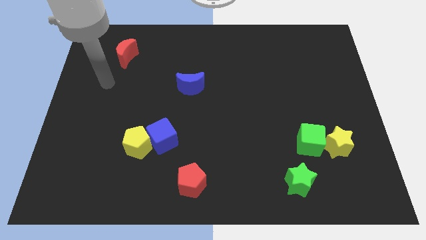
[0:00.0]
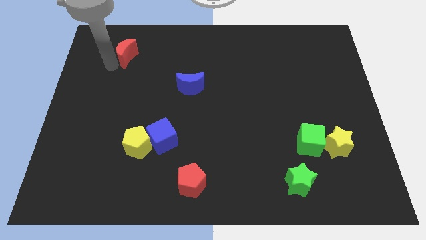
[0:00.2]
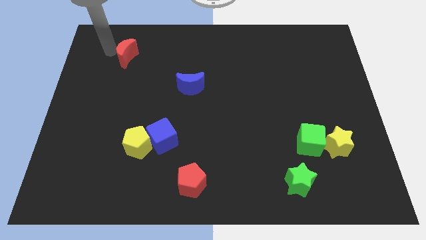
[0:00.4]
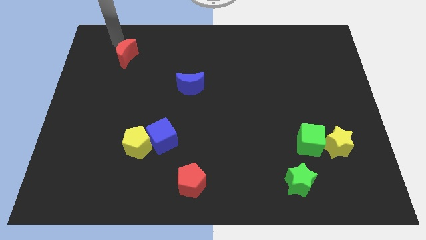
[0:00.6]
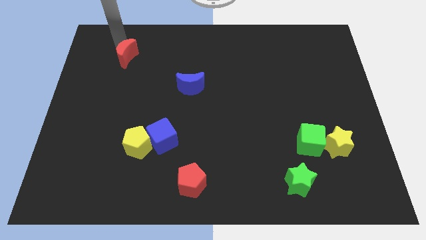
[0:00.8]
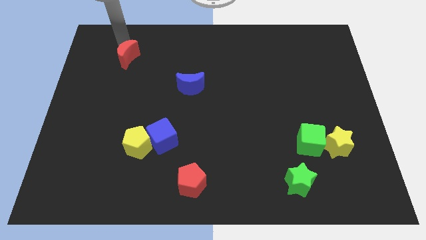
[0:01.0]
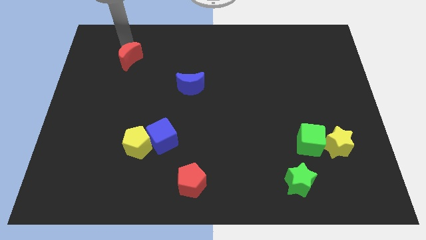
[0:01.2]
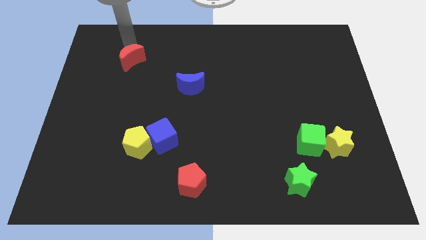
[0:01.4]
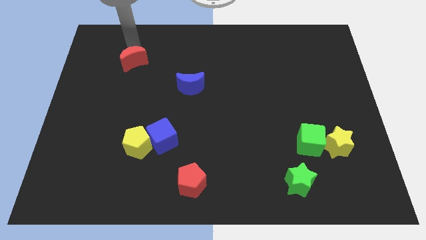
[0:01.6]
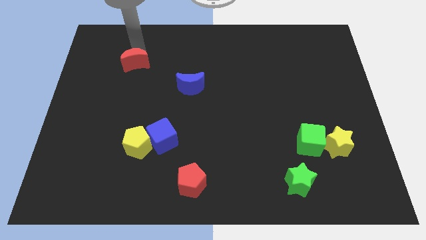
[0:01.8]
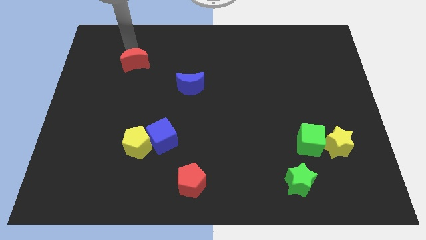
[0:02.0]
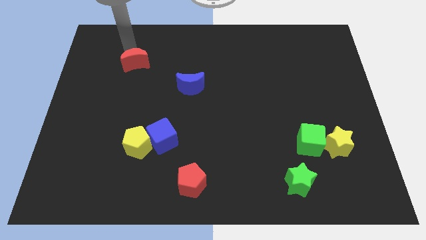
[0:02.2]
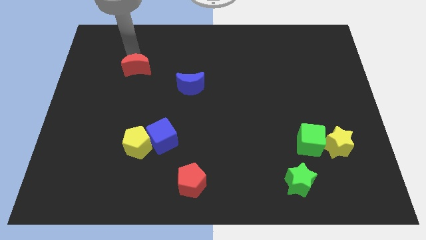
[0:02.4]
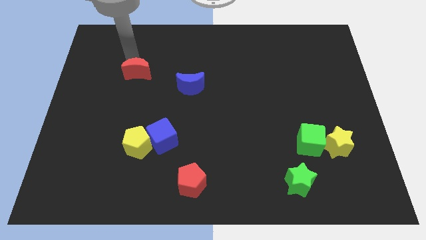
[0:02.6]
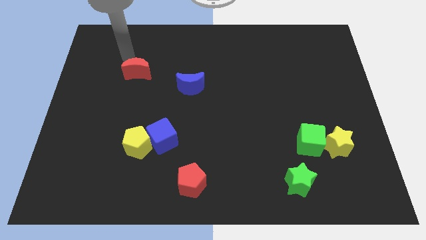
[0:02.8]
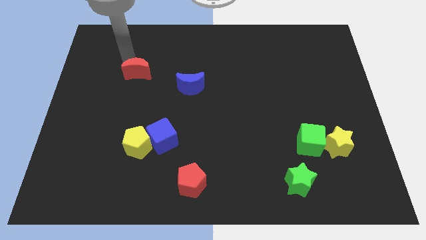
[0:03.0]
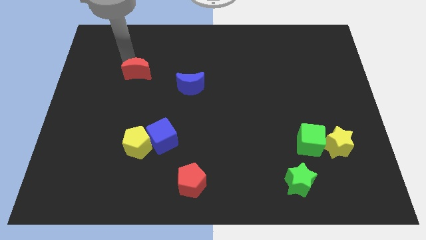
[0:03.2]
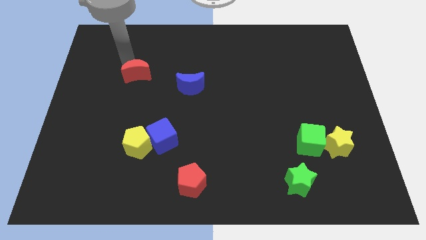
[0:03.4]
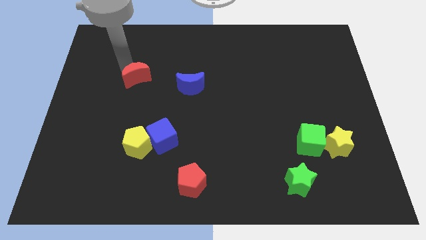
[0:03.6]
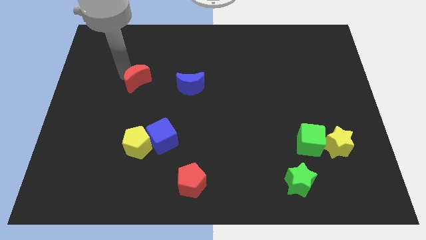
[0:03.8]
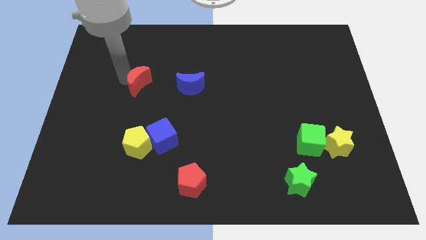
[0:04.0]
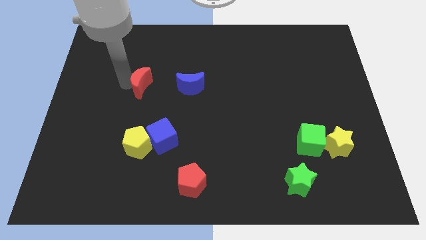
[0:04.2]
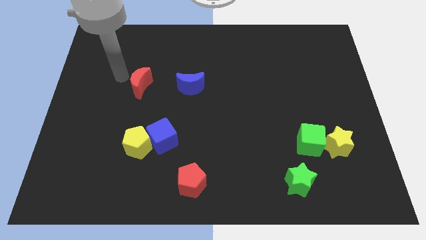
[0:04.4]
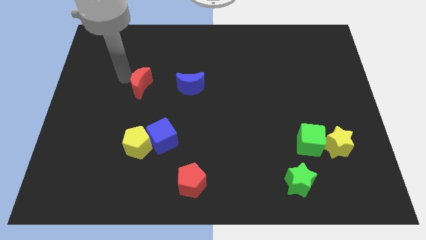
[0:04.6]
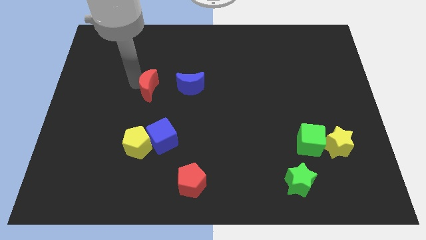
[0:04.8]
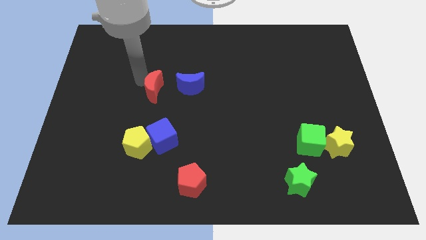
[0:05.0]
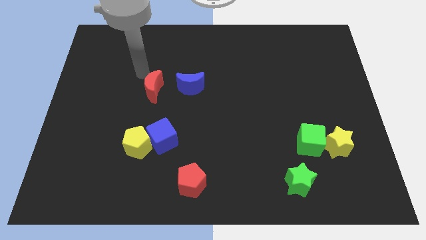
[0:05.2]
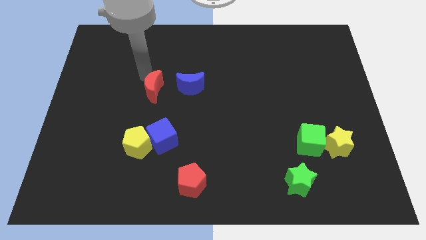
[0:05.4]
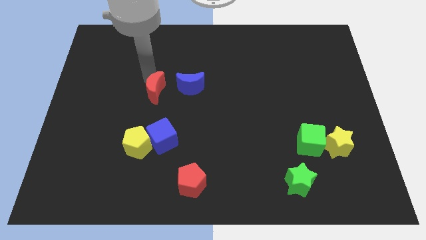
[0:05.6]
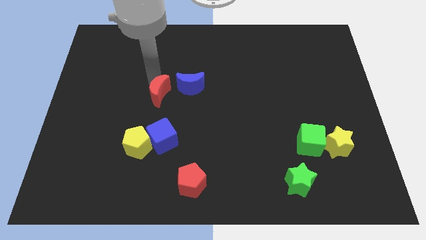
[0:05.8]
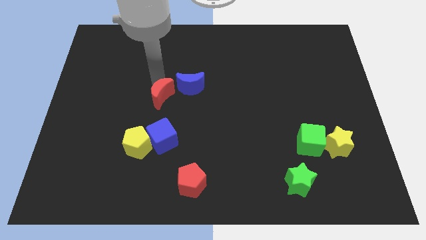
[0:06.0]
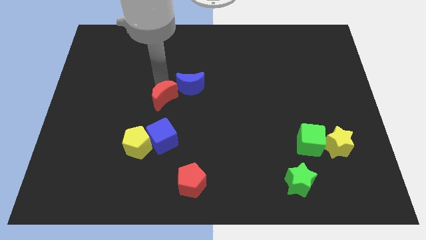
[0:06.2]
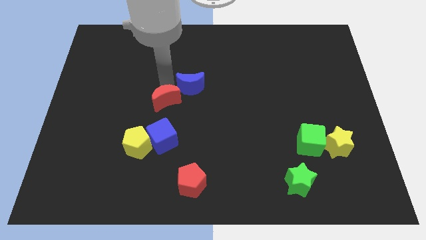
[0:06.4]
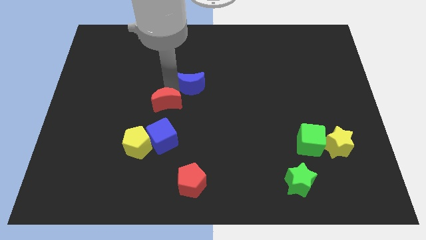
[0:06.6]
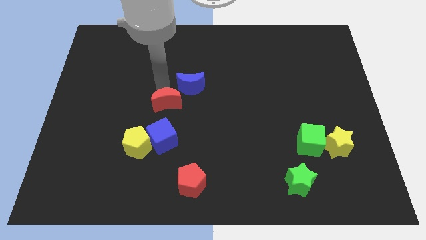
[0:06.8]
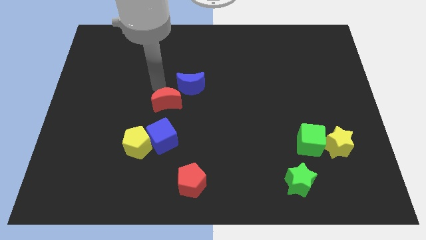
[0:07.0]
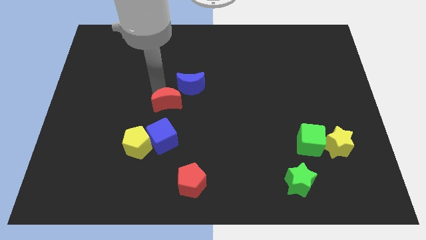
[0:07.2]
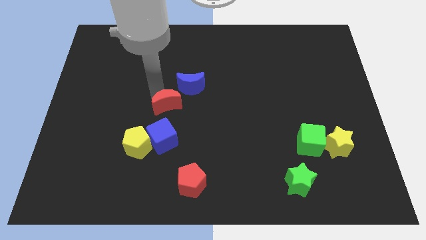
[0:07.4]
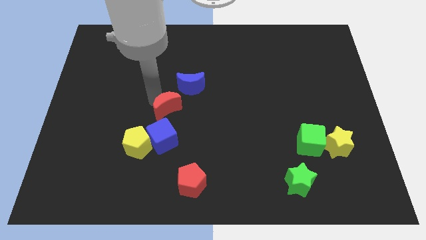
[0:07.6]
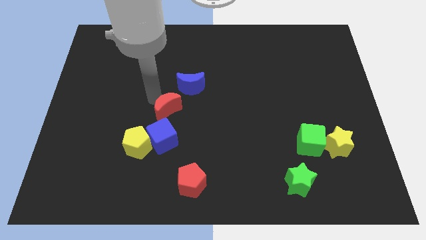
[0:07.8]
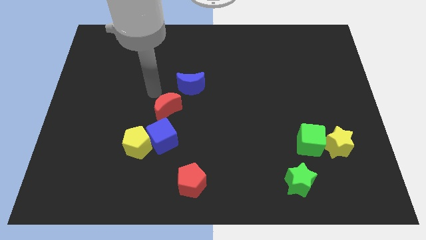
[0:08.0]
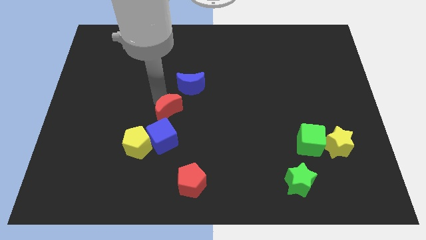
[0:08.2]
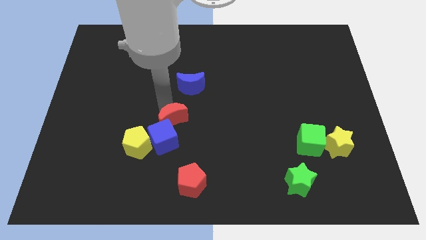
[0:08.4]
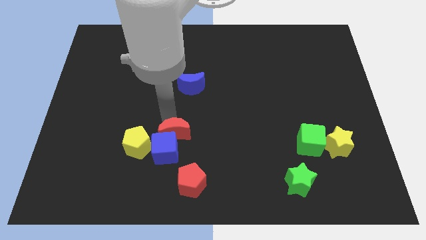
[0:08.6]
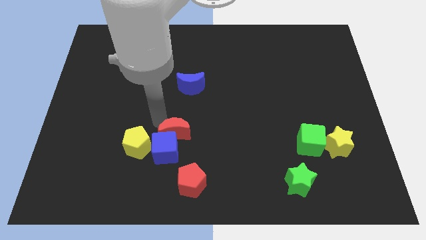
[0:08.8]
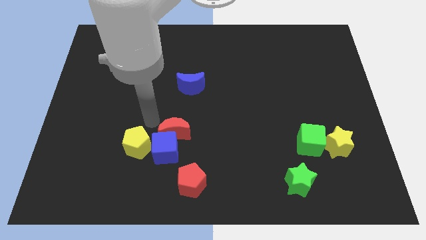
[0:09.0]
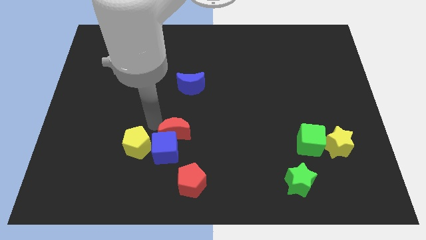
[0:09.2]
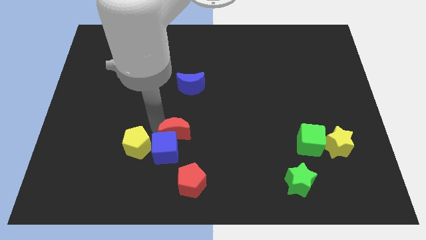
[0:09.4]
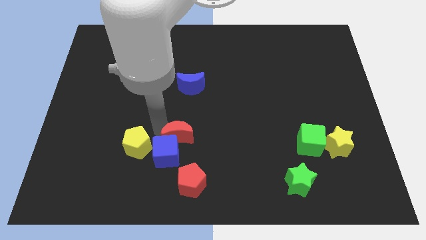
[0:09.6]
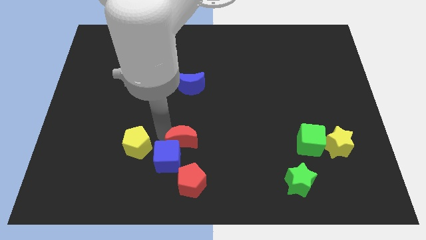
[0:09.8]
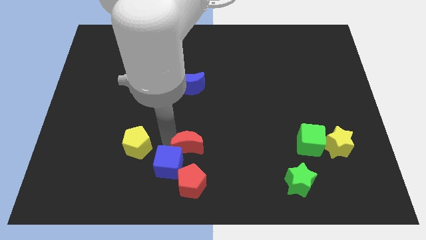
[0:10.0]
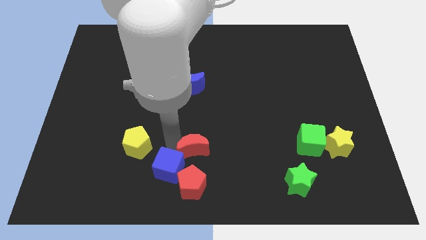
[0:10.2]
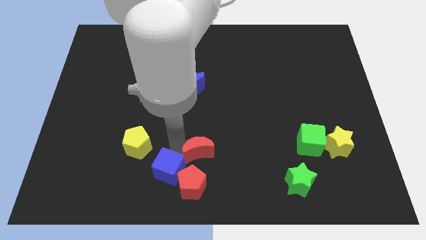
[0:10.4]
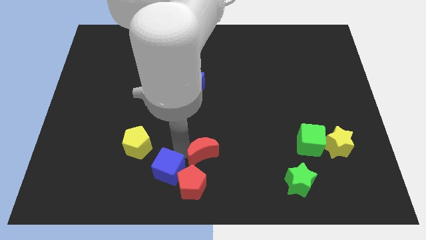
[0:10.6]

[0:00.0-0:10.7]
push the red moon to the bottom

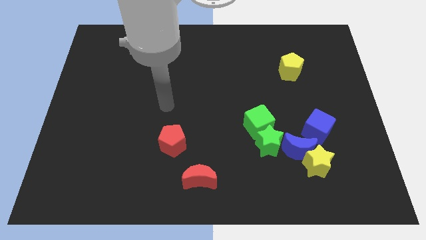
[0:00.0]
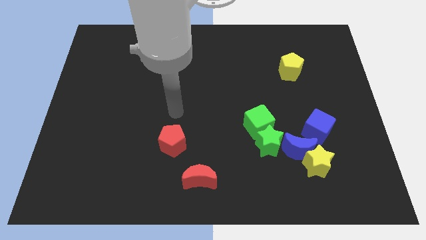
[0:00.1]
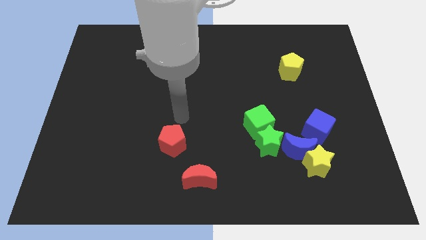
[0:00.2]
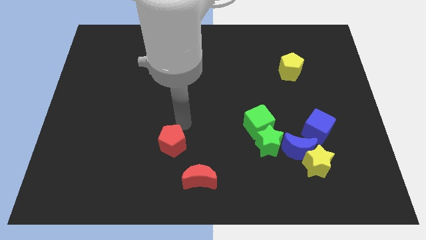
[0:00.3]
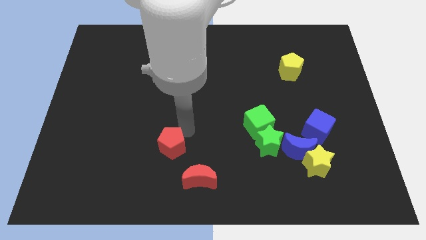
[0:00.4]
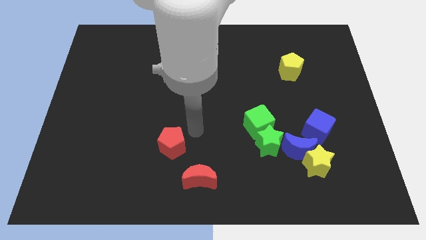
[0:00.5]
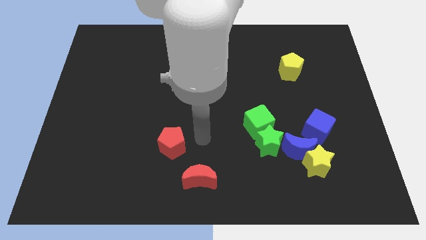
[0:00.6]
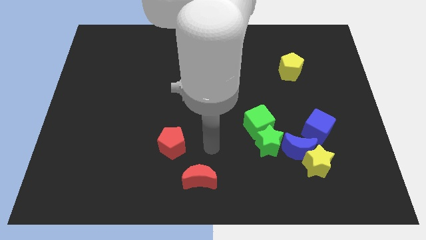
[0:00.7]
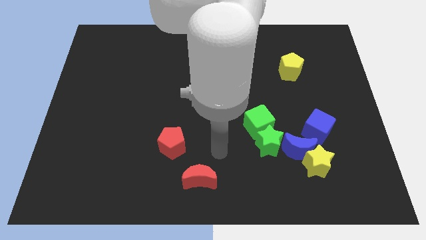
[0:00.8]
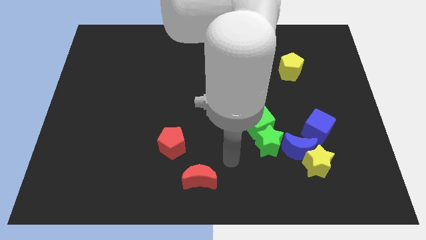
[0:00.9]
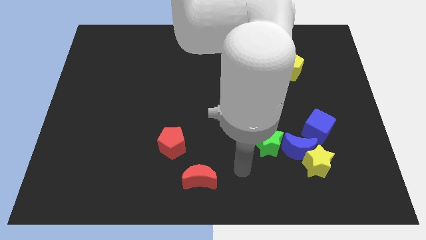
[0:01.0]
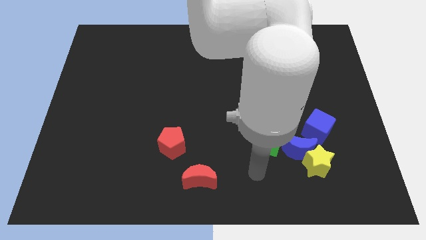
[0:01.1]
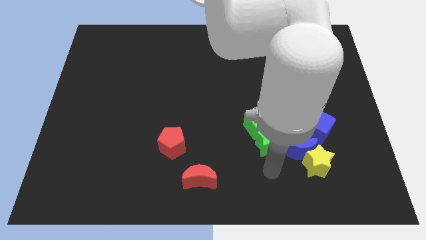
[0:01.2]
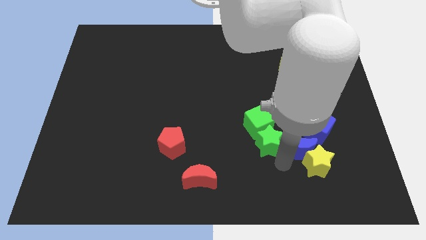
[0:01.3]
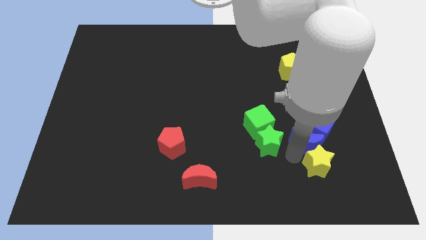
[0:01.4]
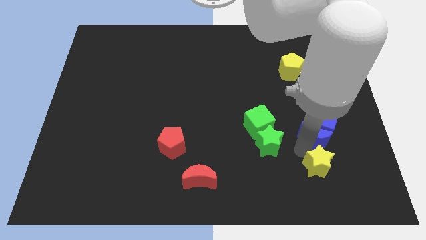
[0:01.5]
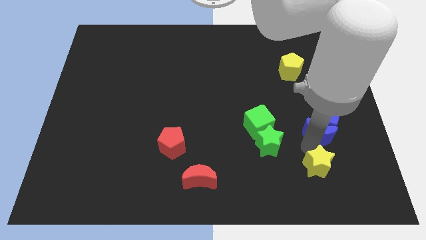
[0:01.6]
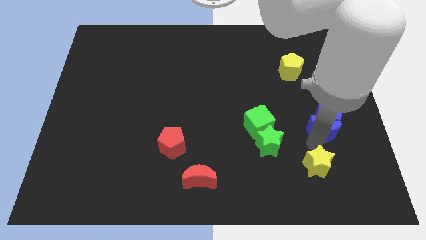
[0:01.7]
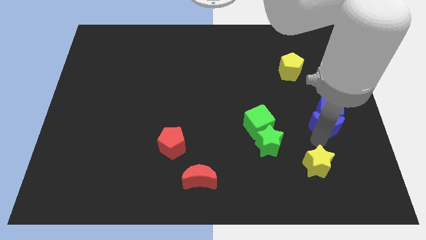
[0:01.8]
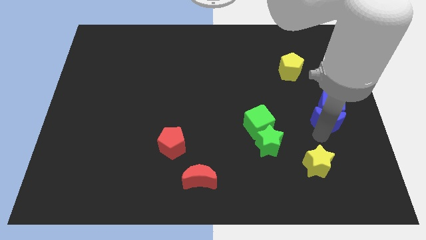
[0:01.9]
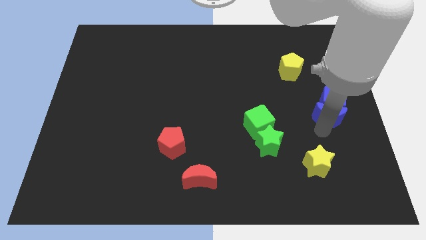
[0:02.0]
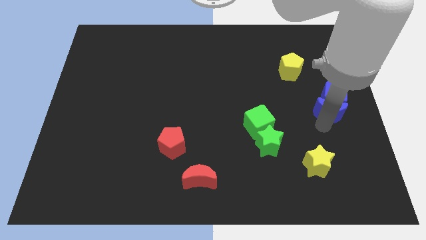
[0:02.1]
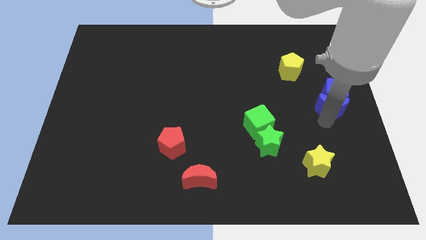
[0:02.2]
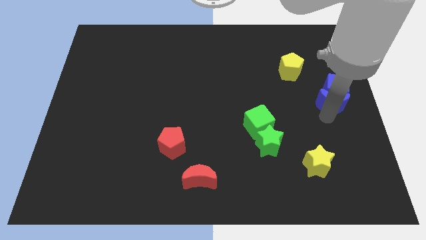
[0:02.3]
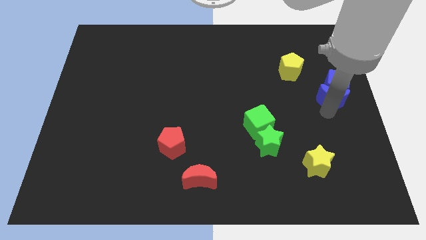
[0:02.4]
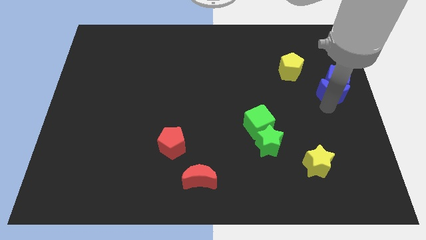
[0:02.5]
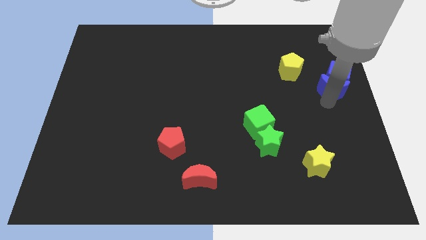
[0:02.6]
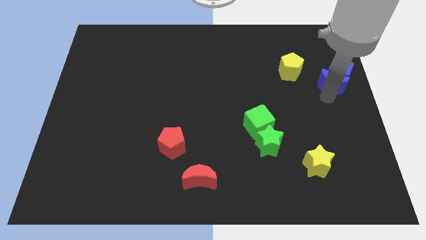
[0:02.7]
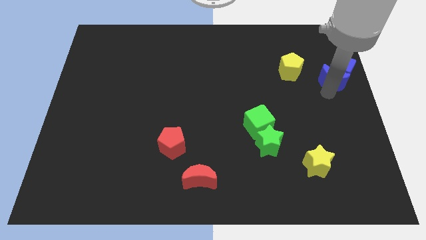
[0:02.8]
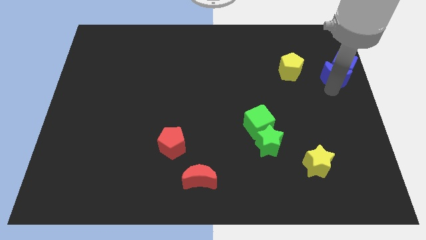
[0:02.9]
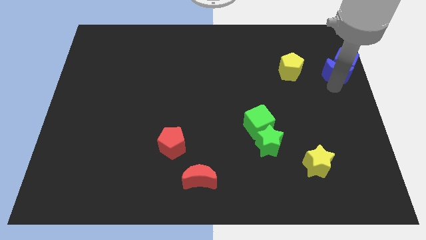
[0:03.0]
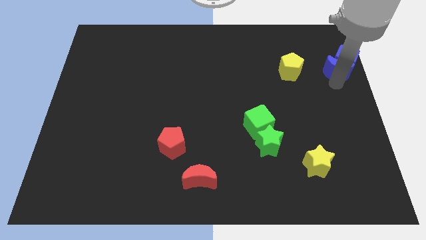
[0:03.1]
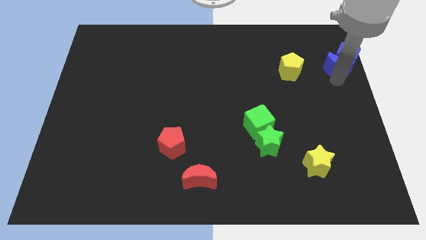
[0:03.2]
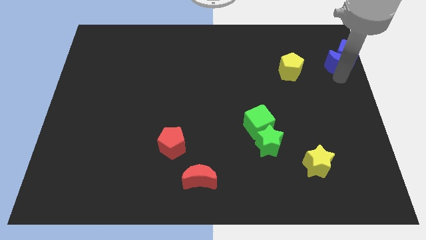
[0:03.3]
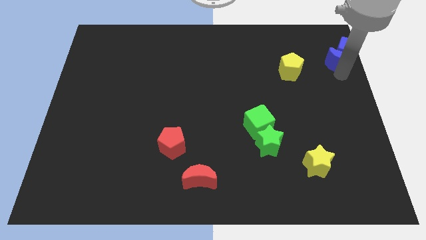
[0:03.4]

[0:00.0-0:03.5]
put the blue cube to the top right of the board
